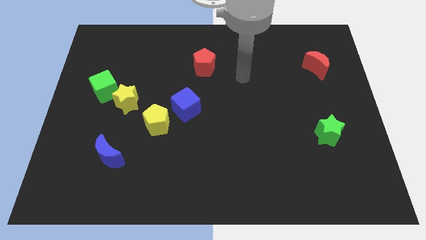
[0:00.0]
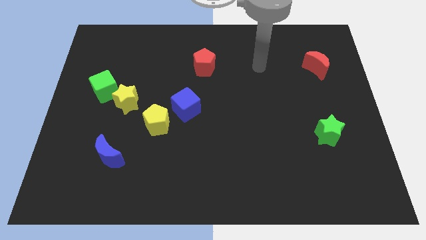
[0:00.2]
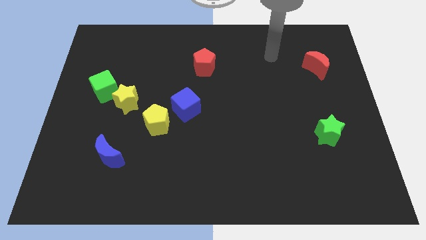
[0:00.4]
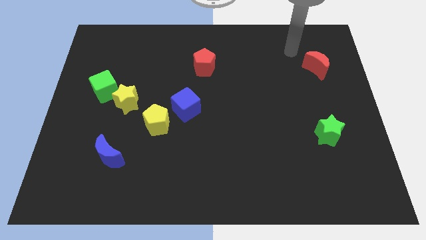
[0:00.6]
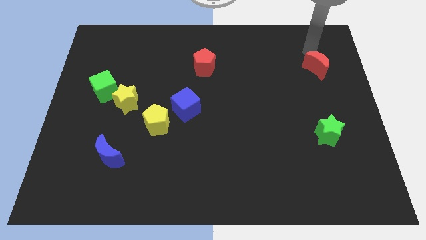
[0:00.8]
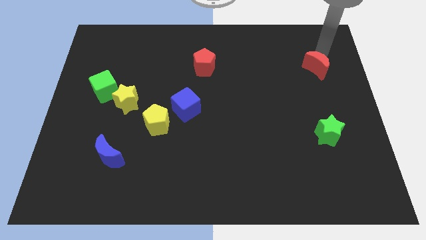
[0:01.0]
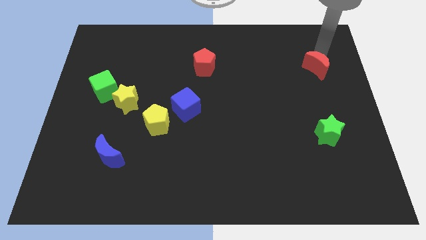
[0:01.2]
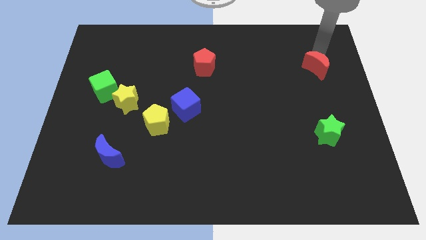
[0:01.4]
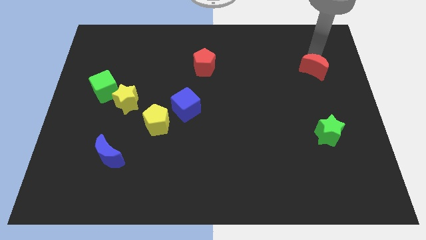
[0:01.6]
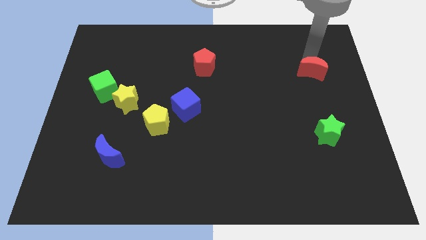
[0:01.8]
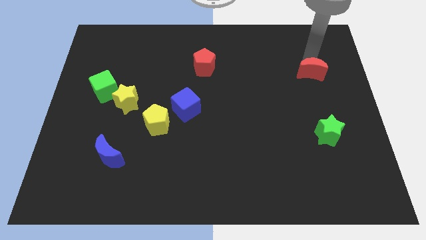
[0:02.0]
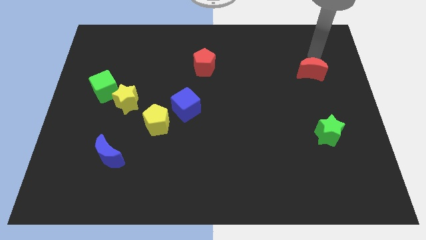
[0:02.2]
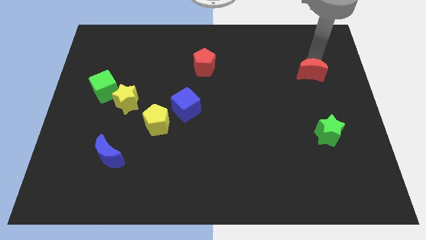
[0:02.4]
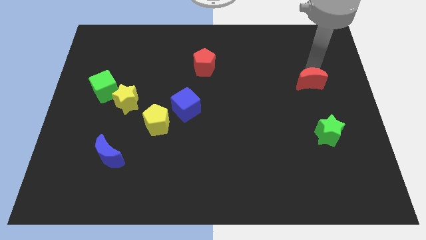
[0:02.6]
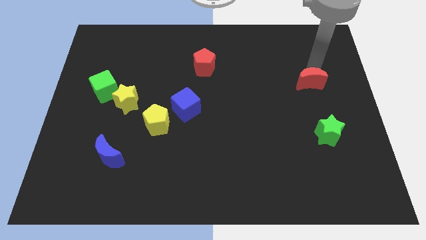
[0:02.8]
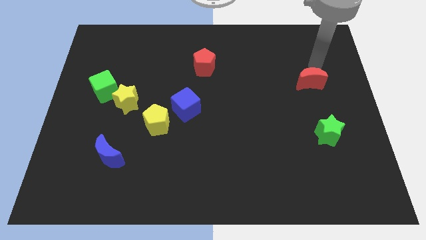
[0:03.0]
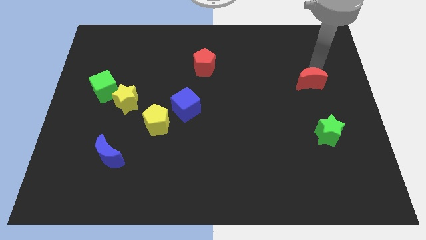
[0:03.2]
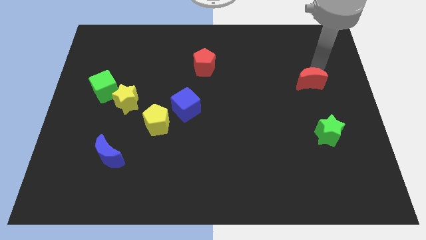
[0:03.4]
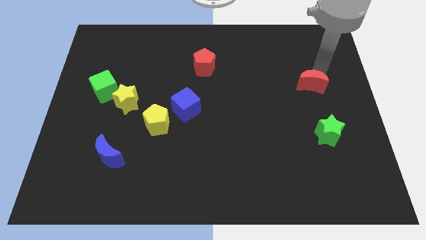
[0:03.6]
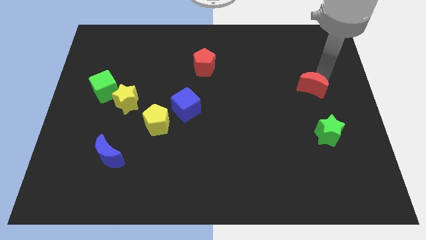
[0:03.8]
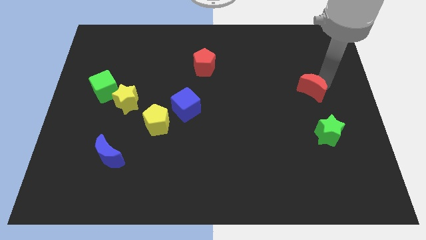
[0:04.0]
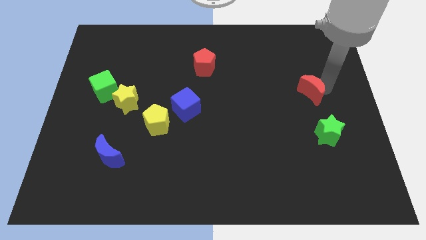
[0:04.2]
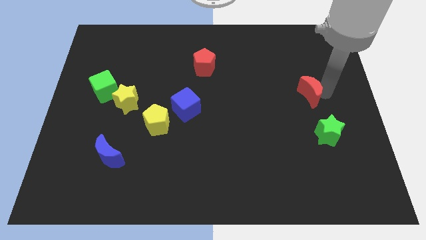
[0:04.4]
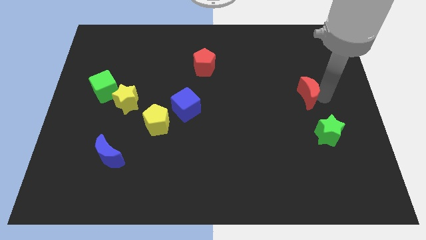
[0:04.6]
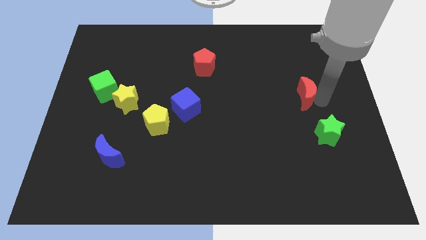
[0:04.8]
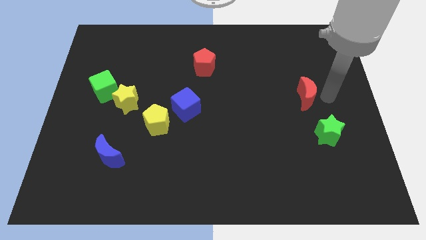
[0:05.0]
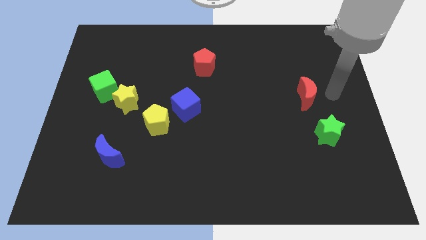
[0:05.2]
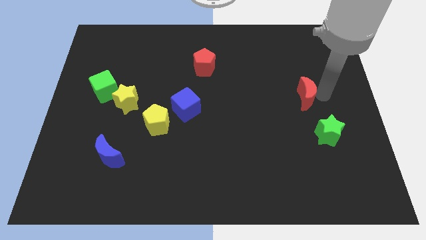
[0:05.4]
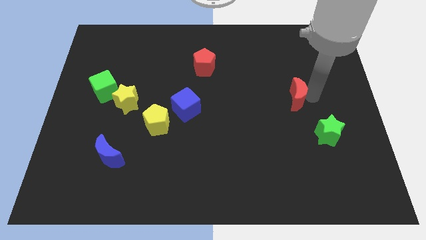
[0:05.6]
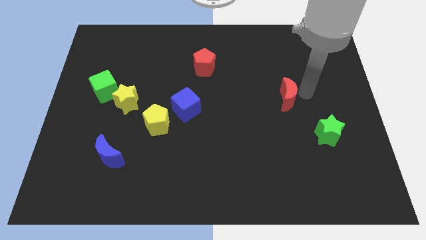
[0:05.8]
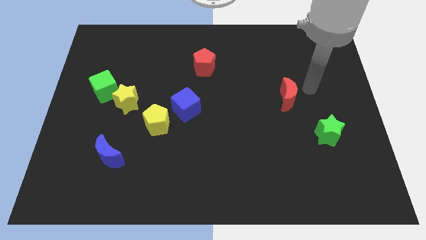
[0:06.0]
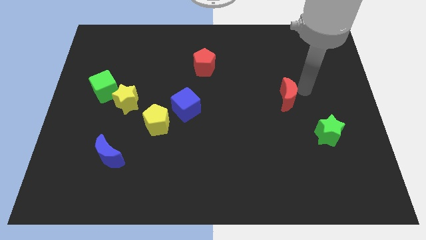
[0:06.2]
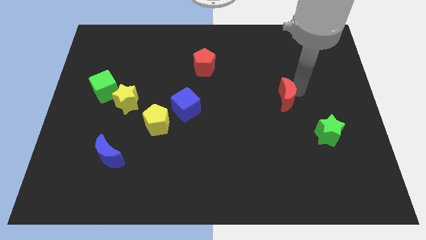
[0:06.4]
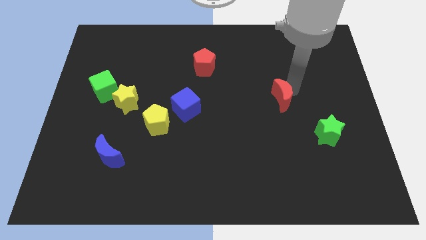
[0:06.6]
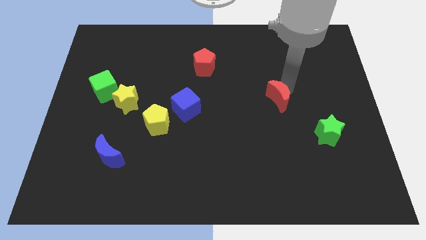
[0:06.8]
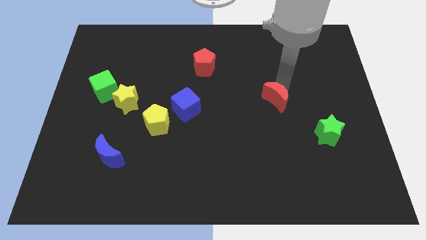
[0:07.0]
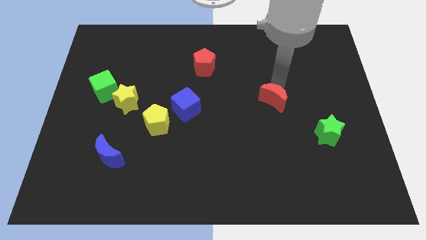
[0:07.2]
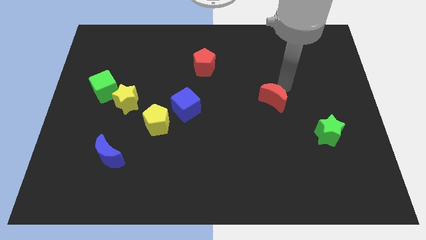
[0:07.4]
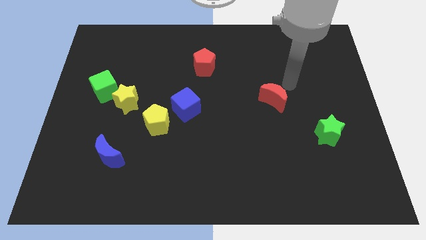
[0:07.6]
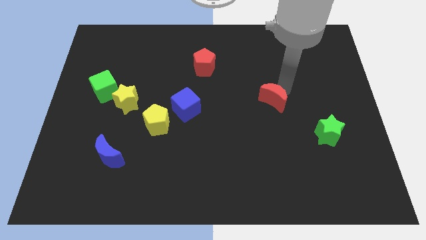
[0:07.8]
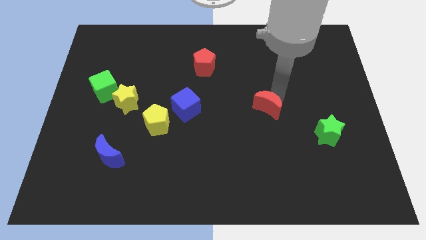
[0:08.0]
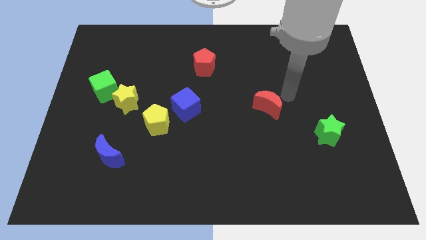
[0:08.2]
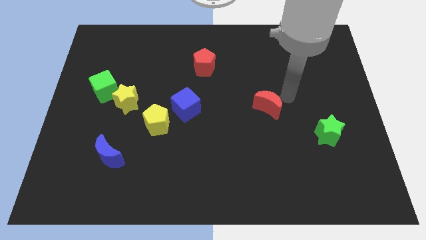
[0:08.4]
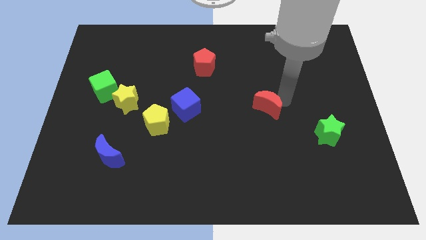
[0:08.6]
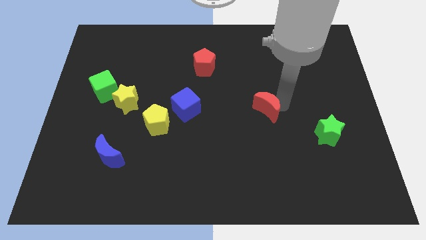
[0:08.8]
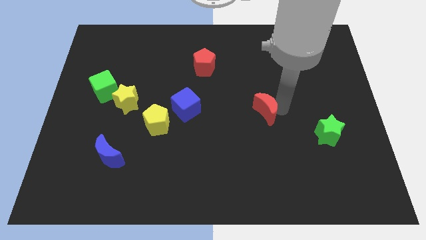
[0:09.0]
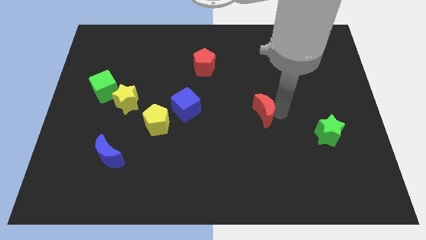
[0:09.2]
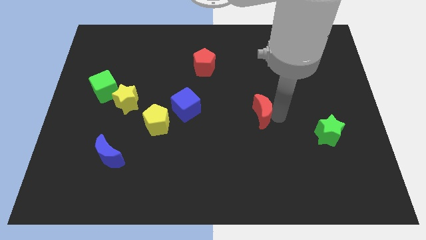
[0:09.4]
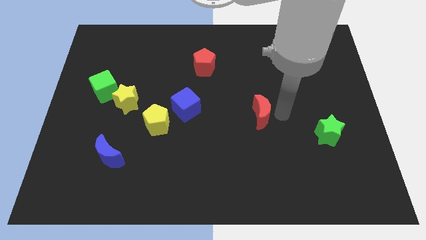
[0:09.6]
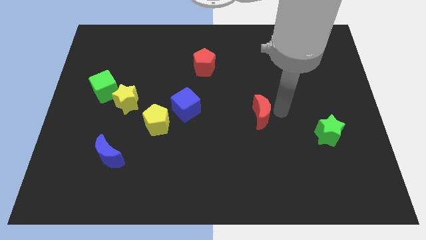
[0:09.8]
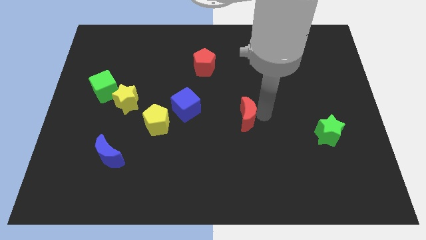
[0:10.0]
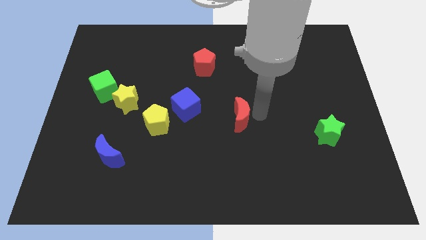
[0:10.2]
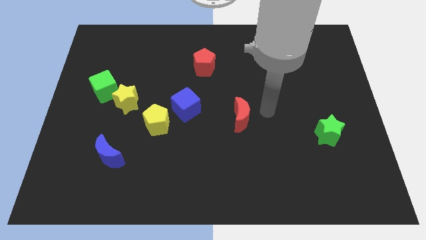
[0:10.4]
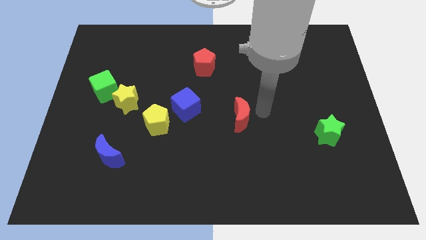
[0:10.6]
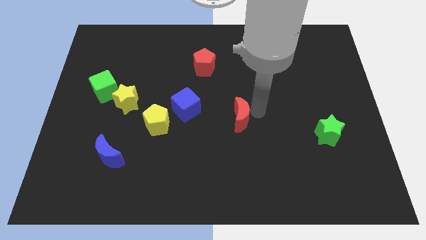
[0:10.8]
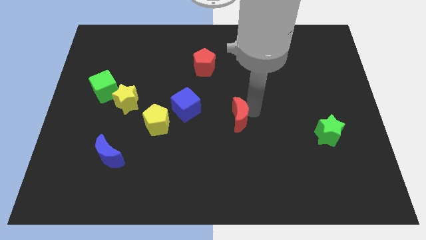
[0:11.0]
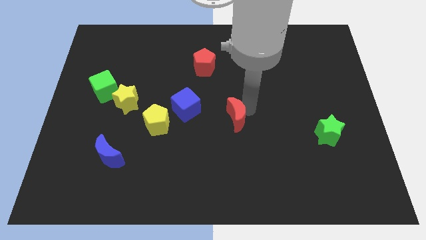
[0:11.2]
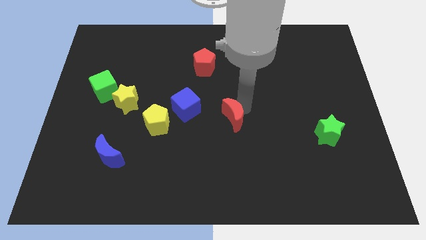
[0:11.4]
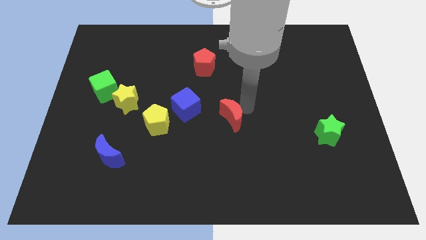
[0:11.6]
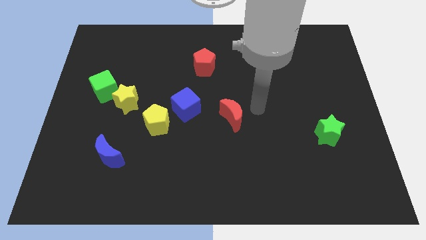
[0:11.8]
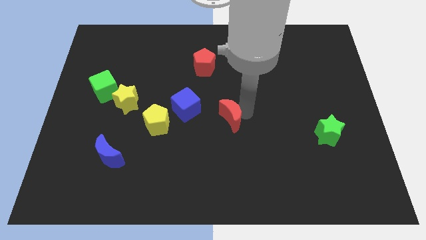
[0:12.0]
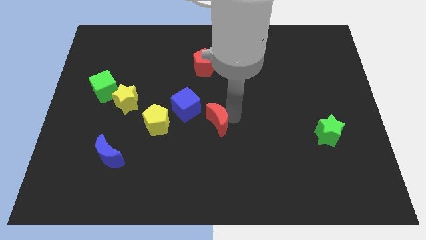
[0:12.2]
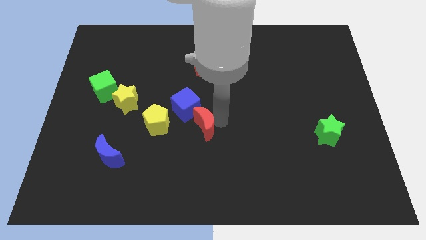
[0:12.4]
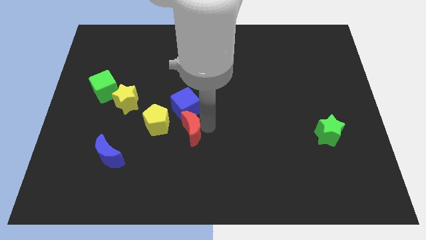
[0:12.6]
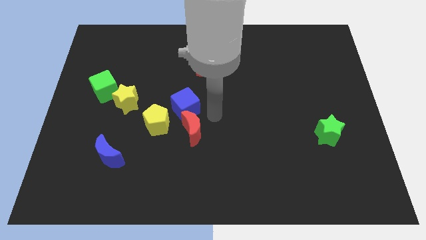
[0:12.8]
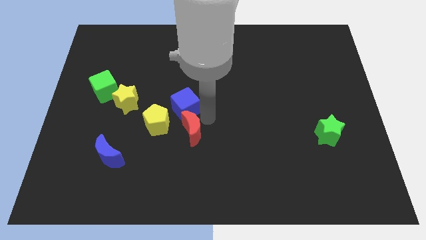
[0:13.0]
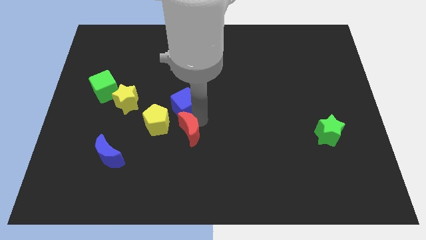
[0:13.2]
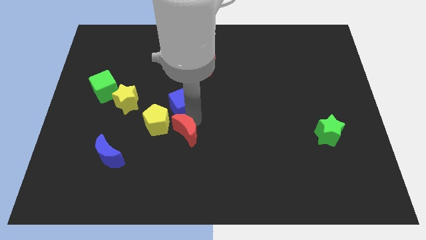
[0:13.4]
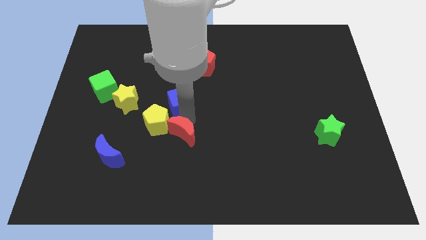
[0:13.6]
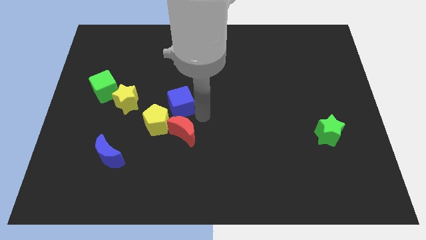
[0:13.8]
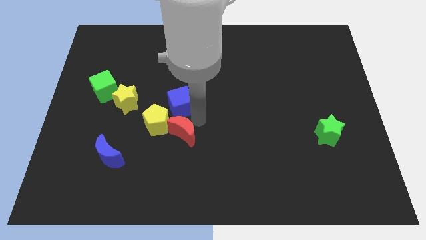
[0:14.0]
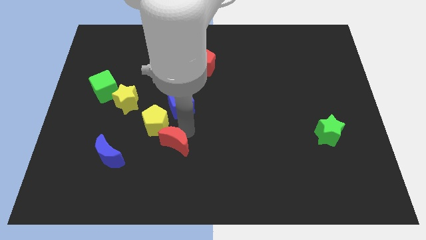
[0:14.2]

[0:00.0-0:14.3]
slide the red moon to the right side of the blue moon
